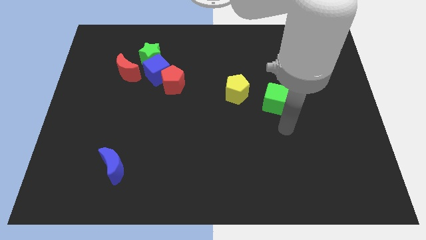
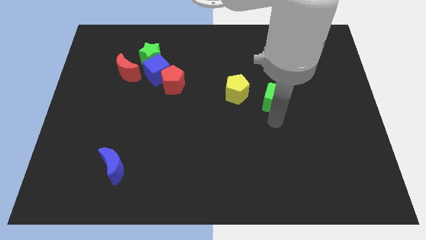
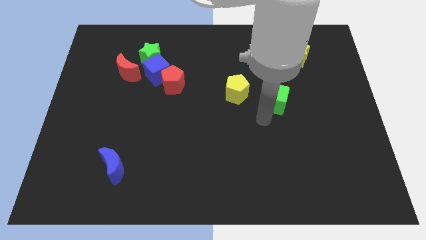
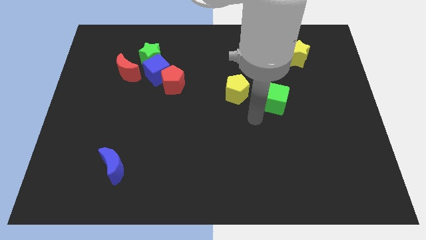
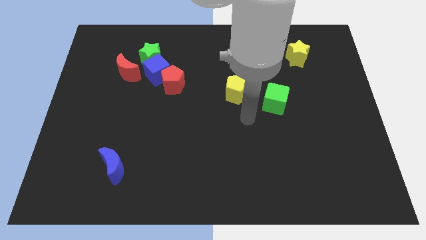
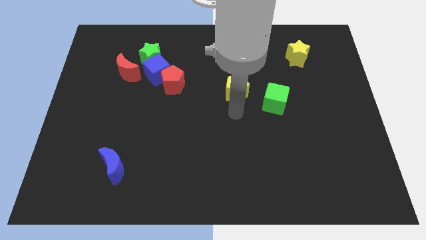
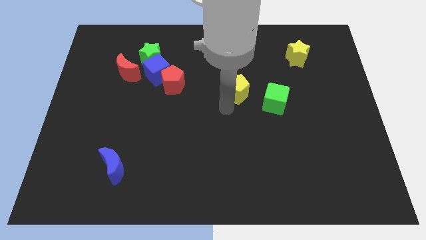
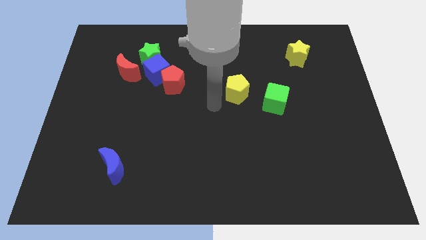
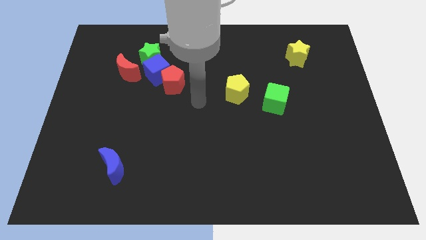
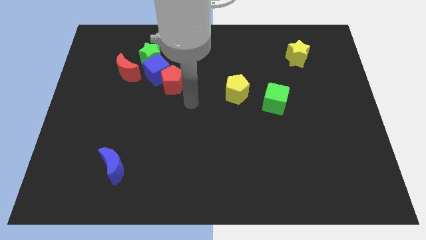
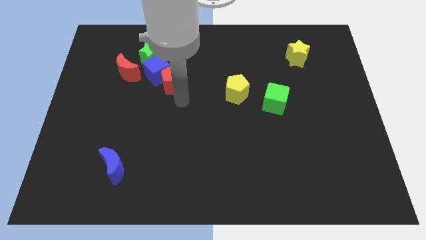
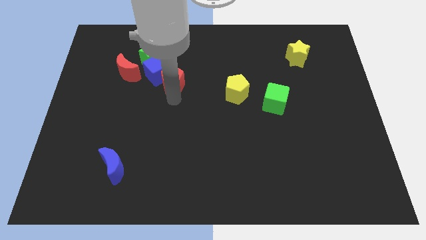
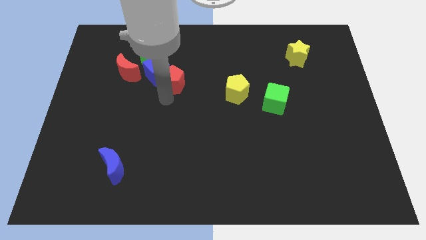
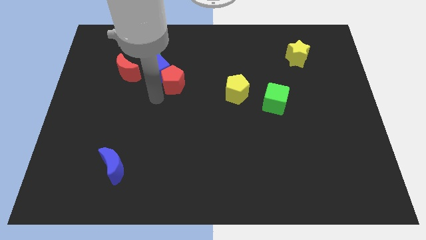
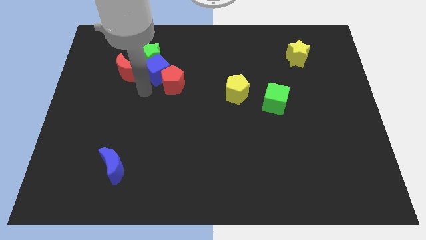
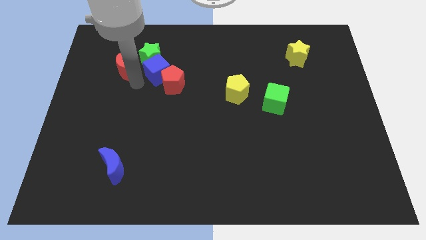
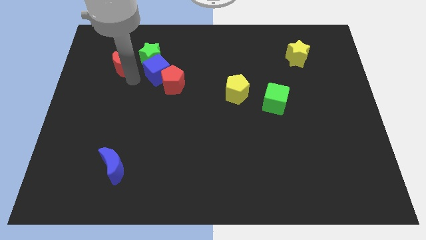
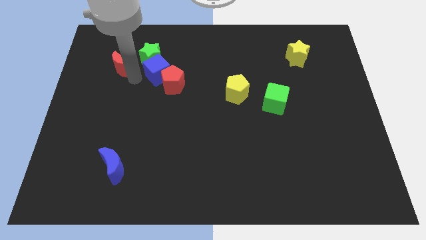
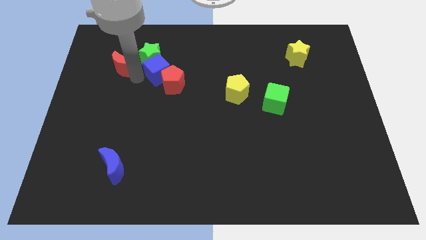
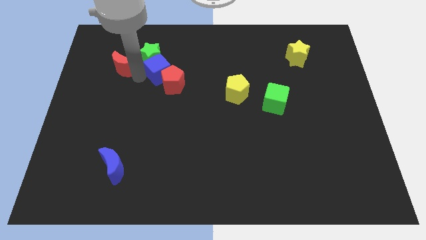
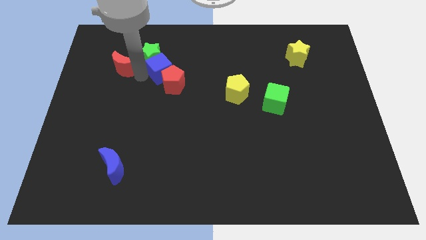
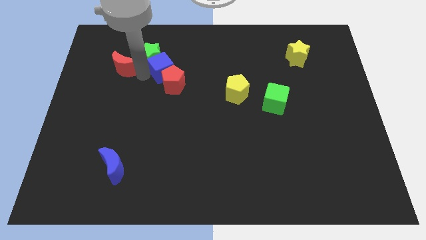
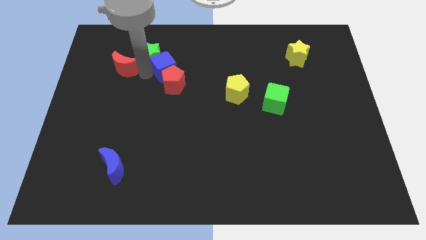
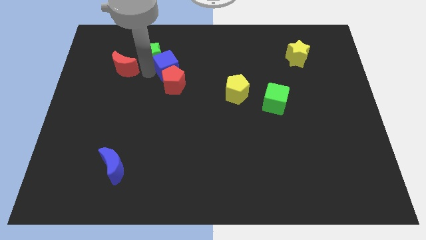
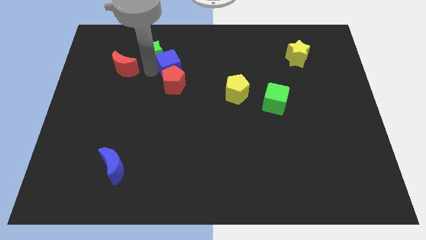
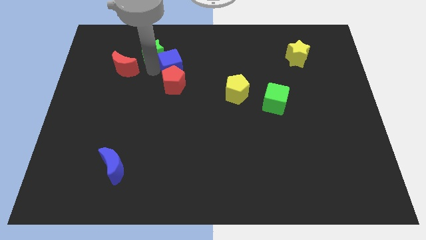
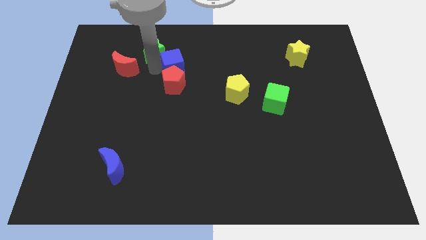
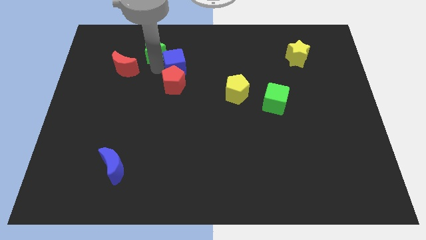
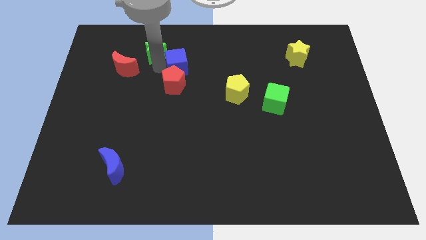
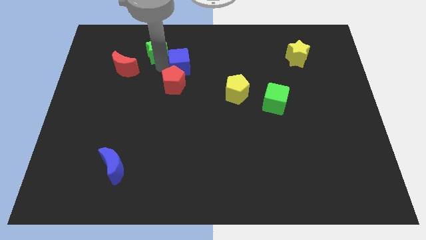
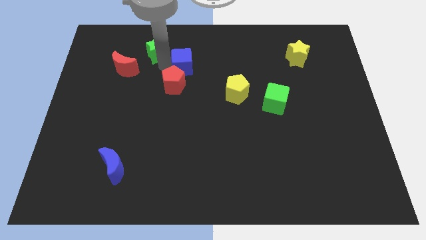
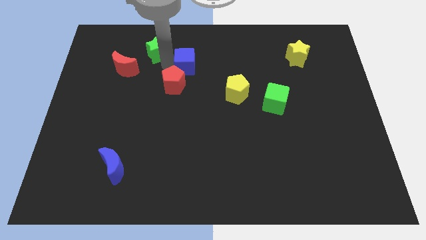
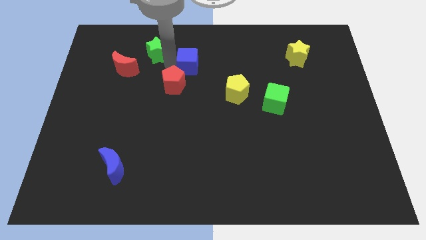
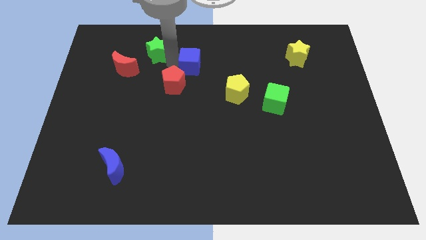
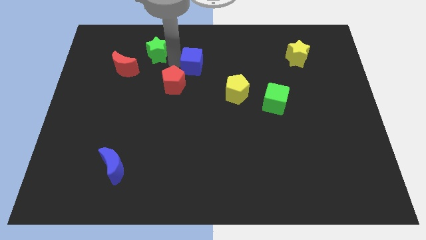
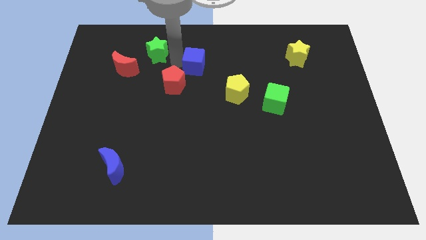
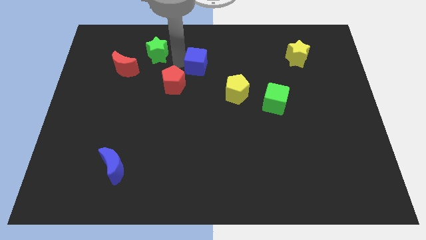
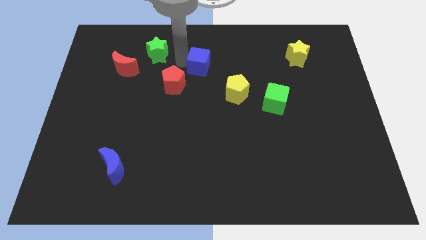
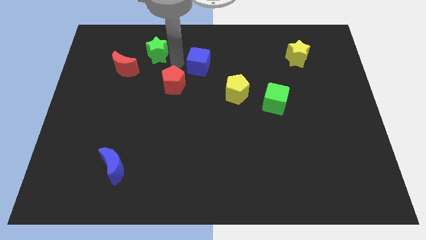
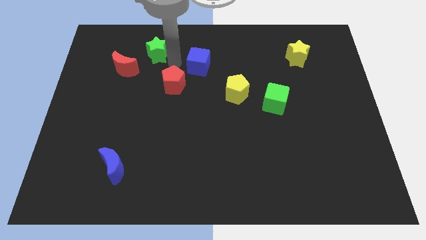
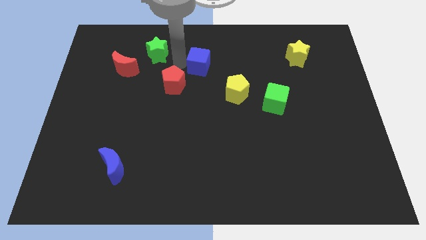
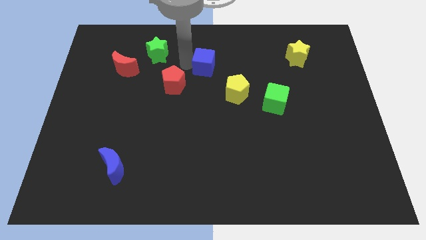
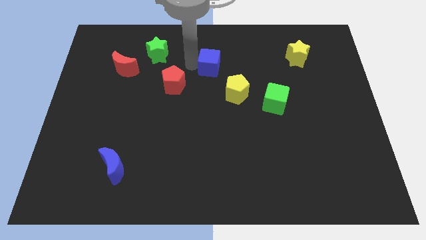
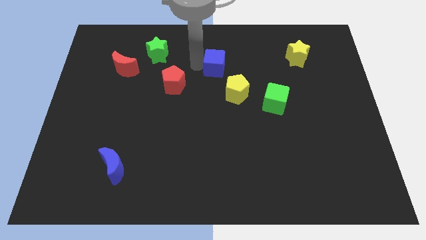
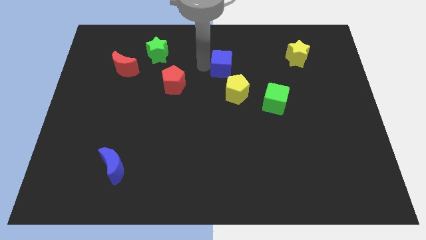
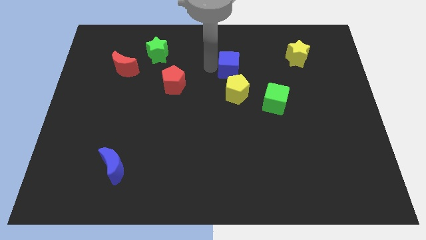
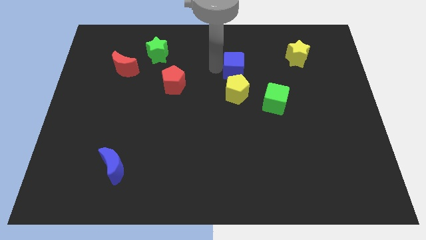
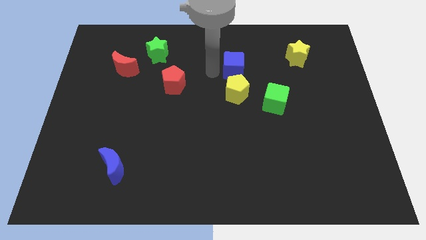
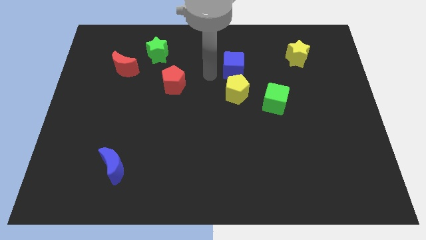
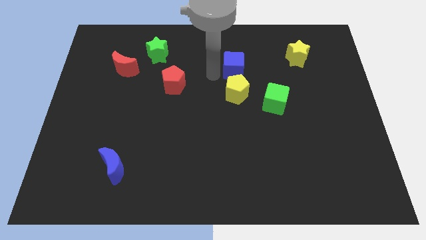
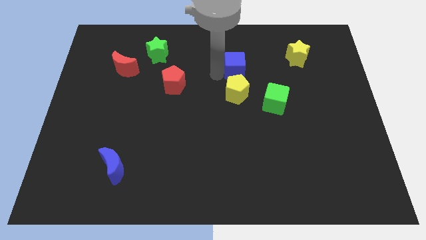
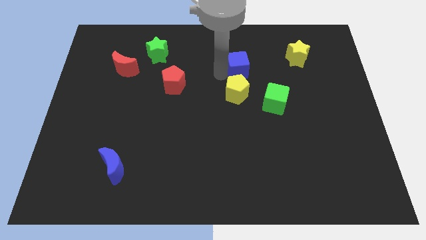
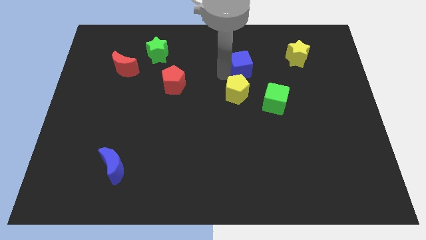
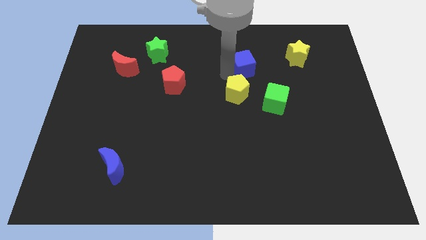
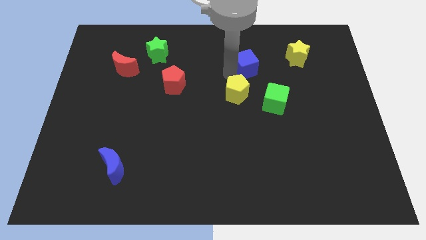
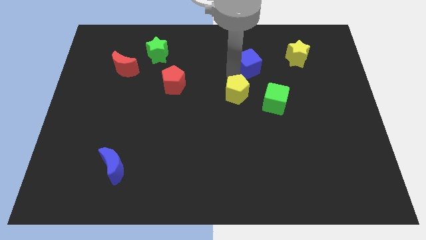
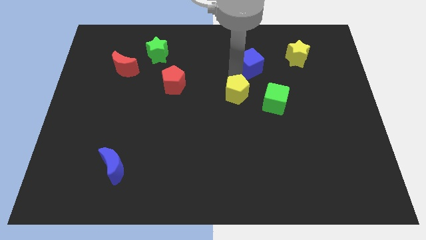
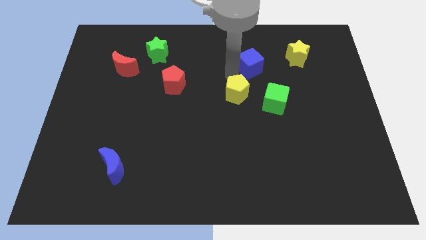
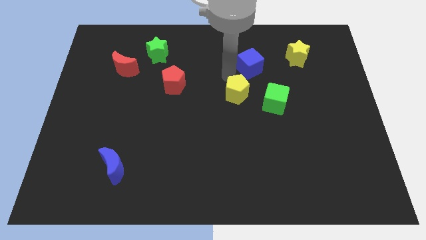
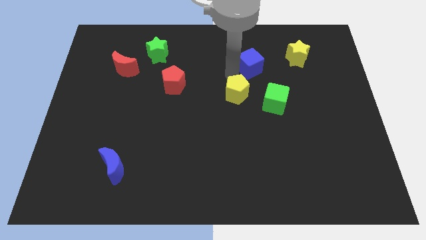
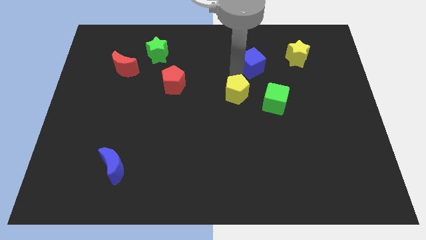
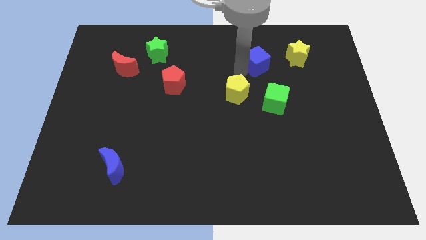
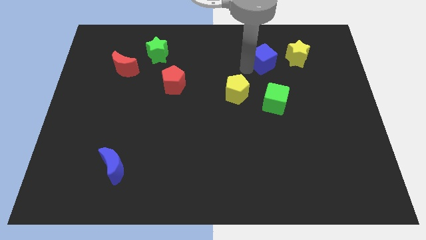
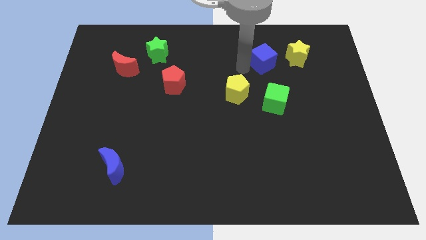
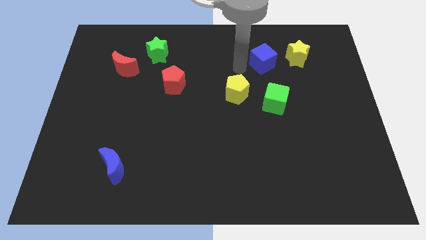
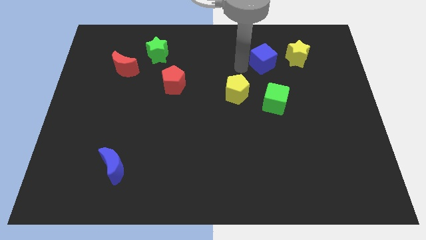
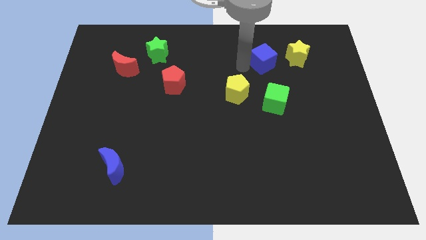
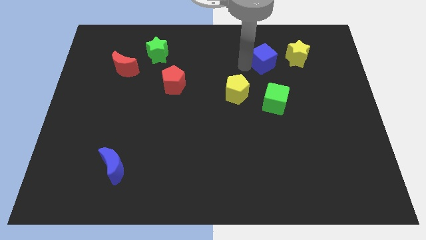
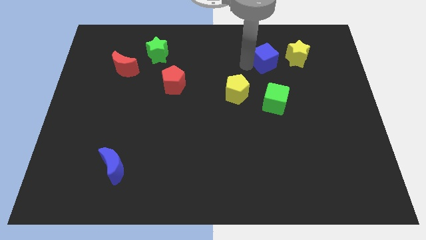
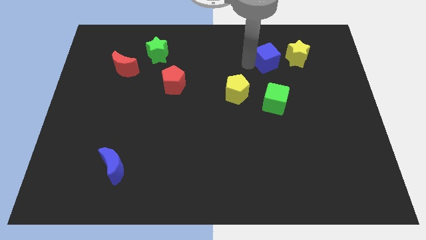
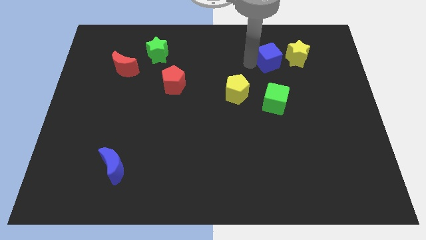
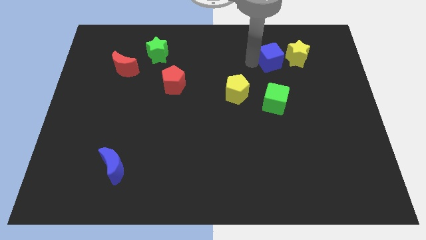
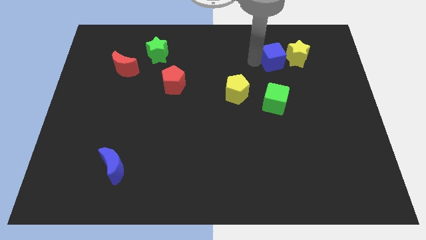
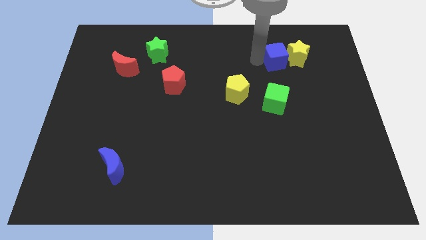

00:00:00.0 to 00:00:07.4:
put the blue cube next to the yellow star
